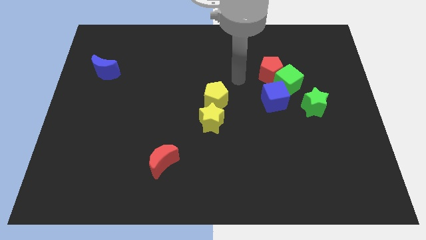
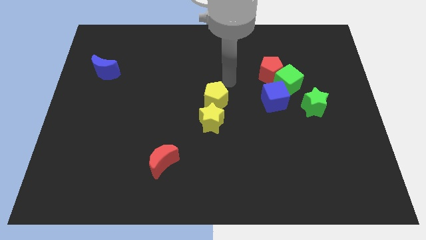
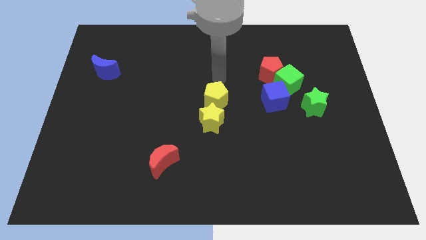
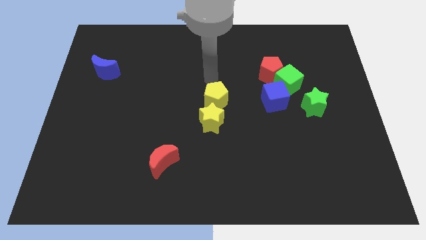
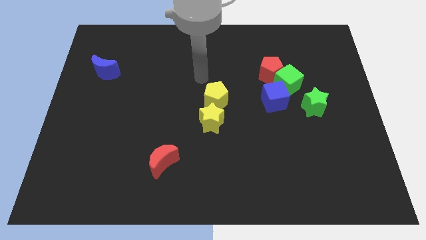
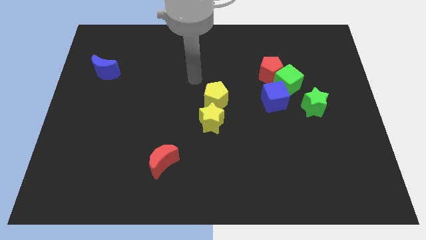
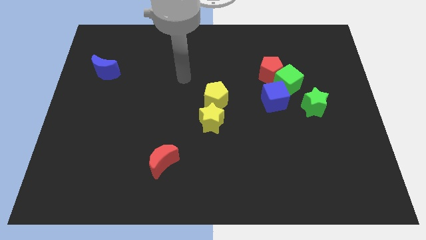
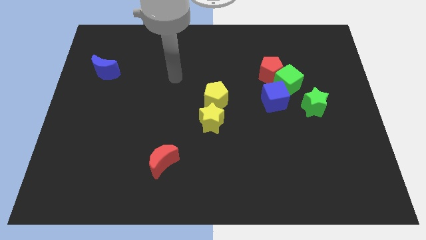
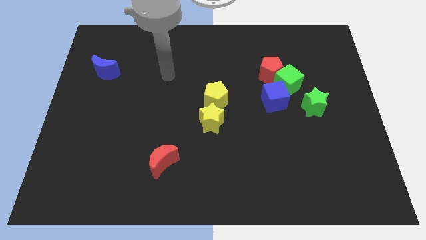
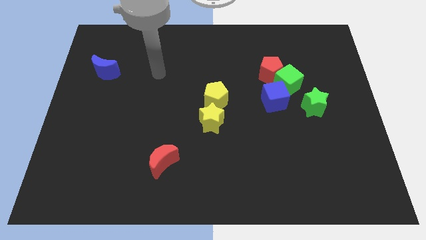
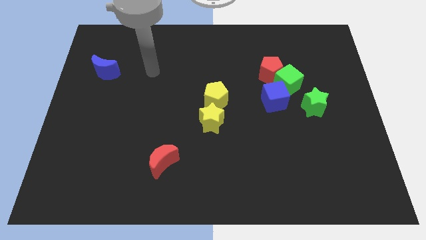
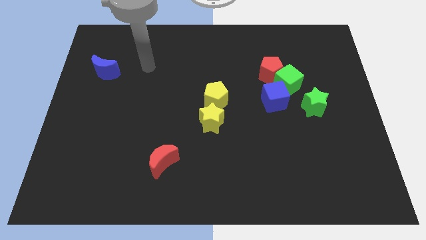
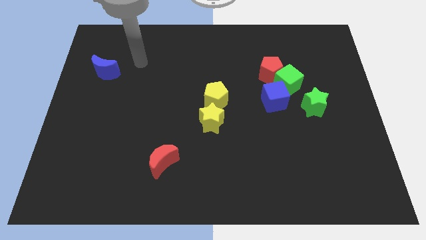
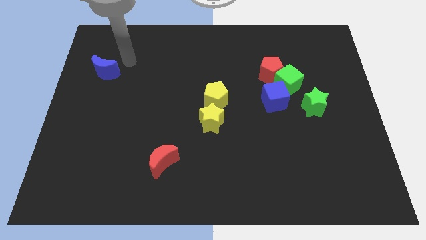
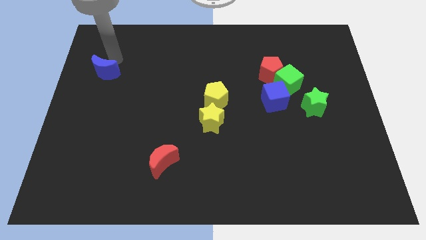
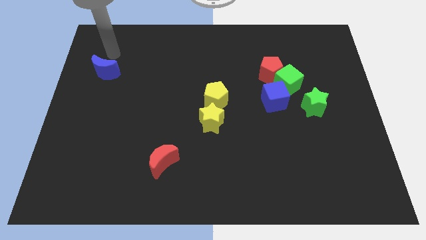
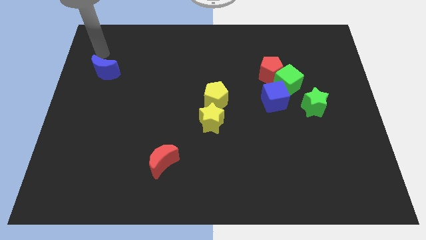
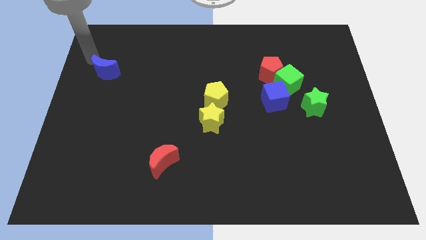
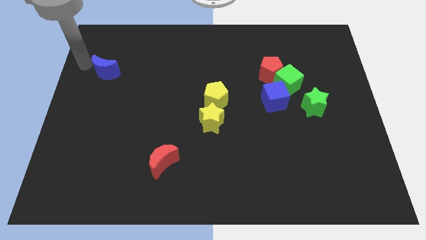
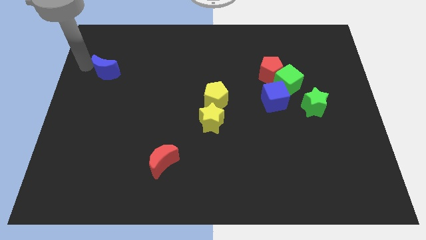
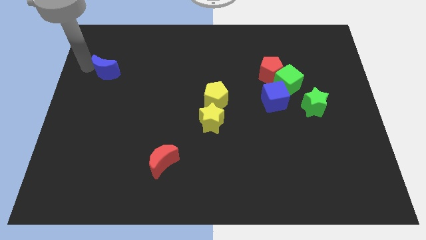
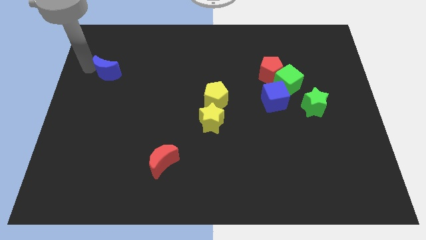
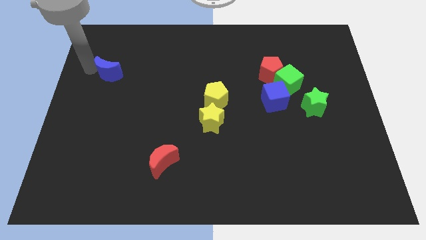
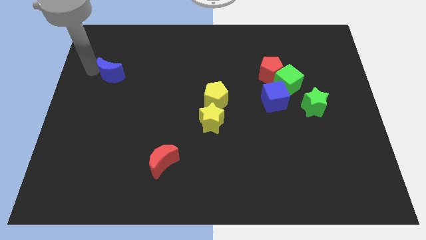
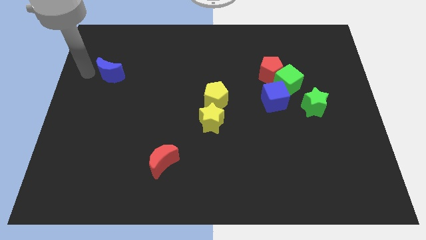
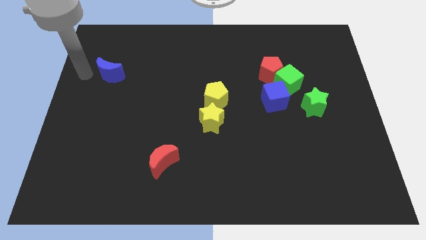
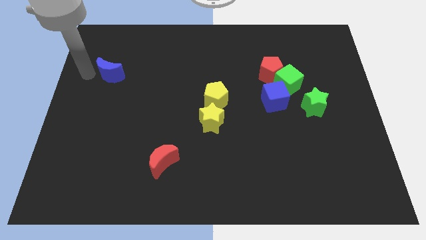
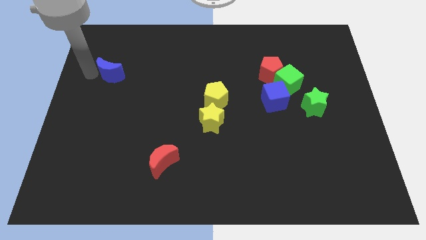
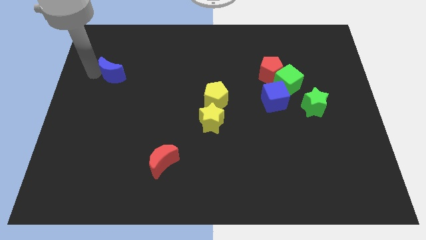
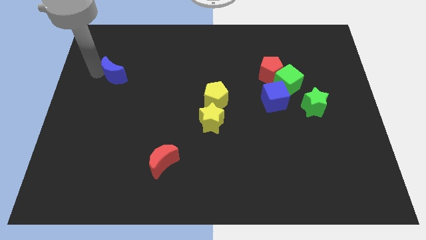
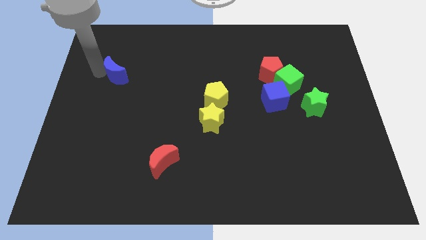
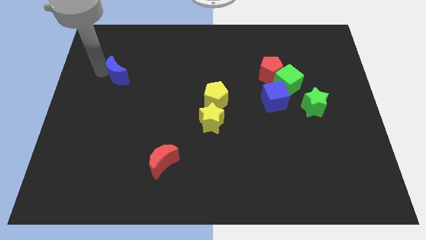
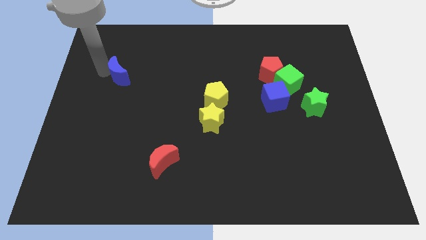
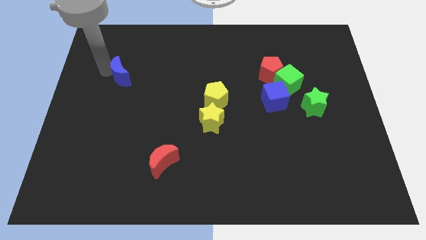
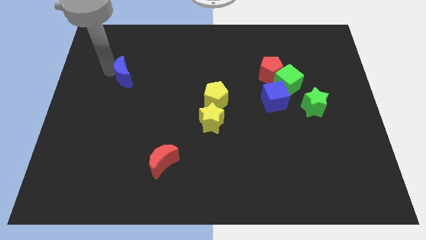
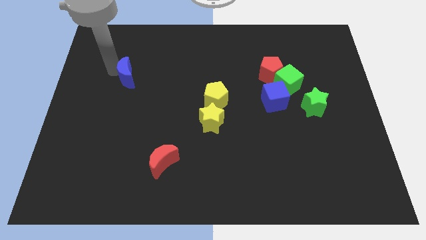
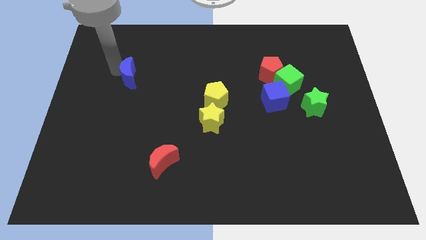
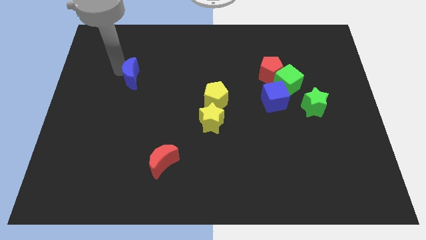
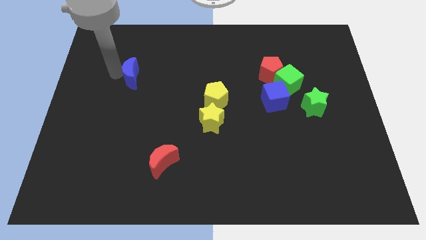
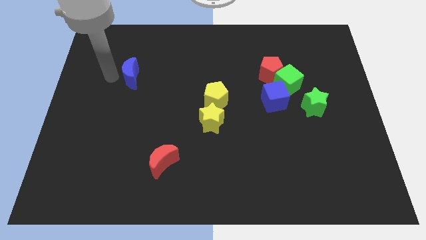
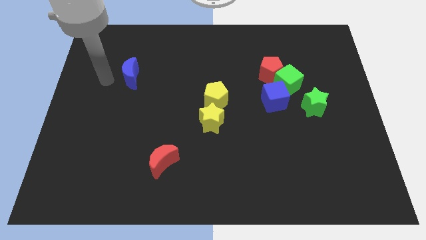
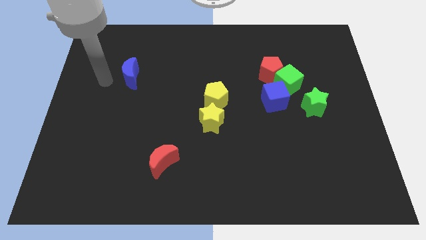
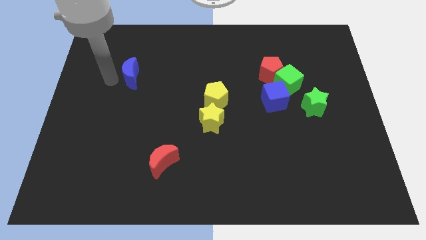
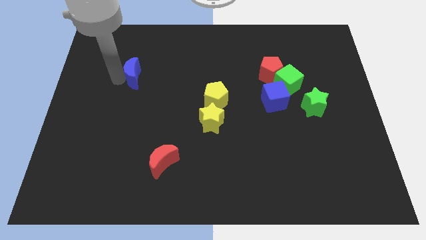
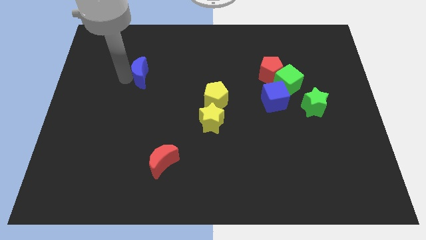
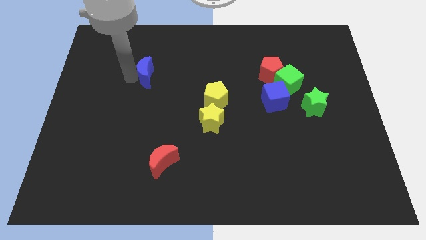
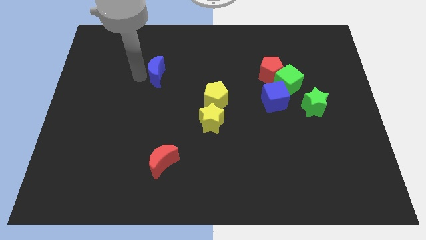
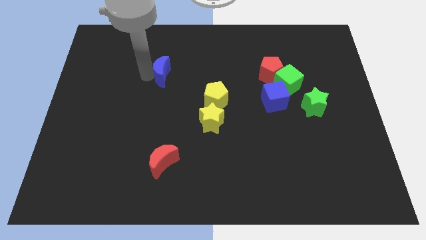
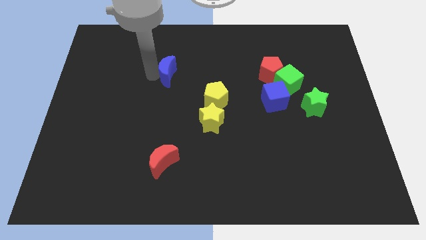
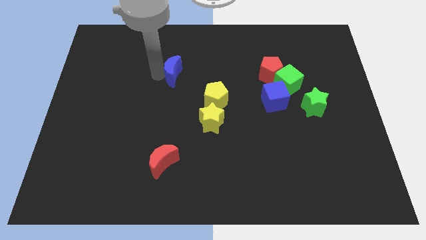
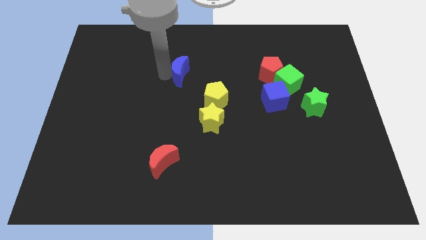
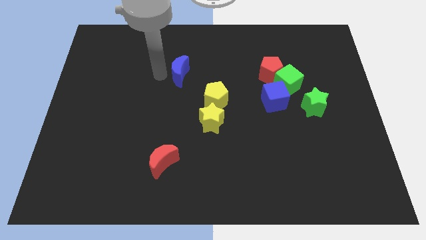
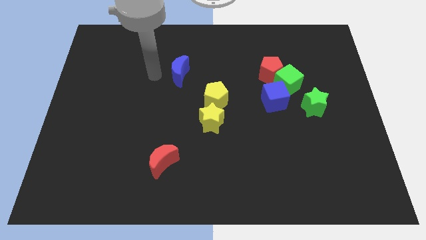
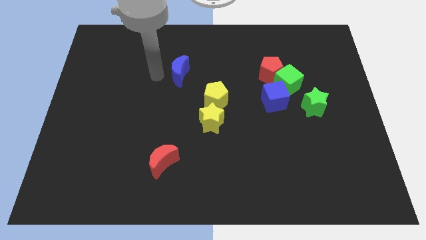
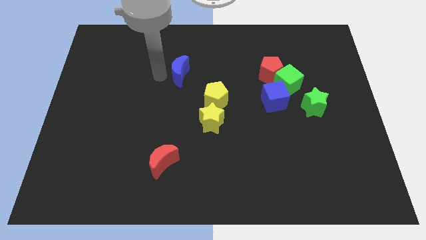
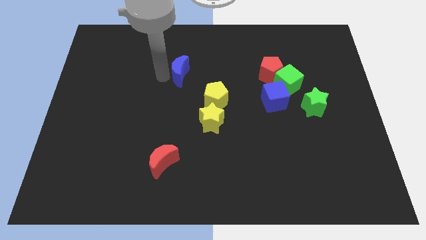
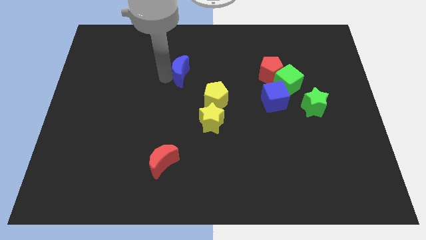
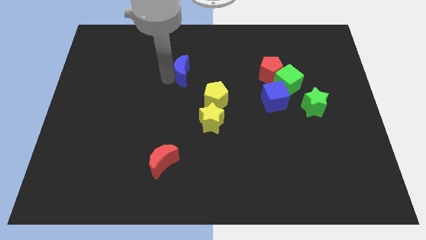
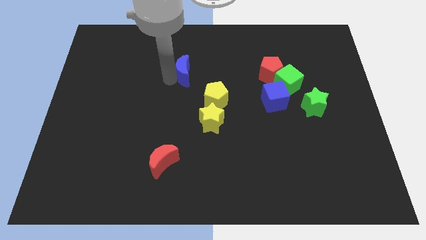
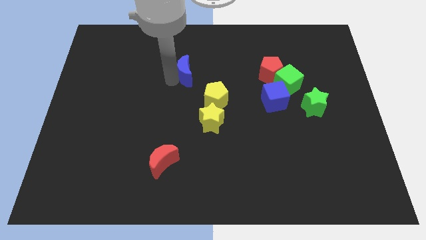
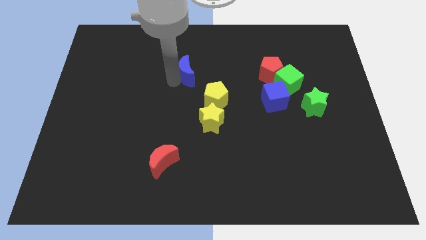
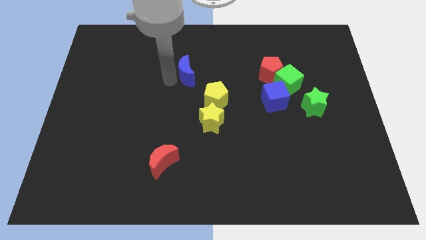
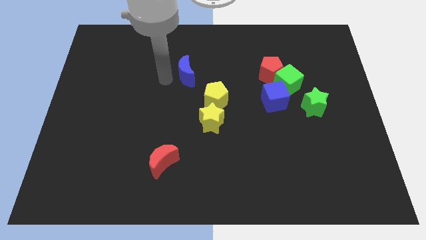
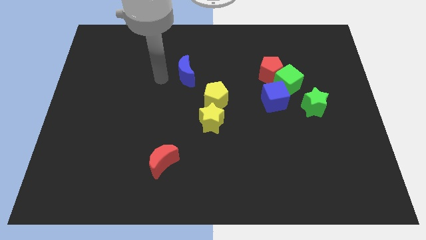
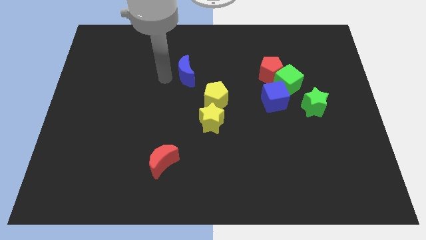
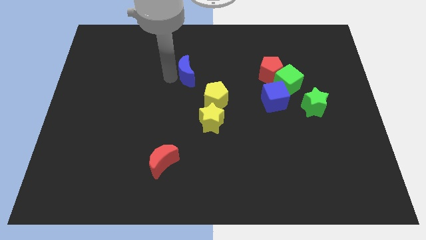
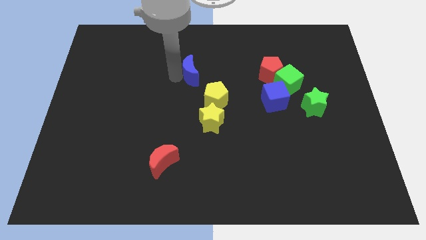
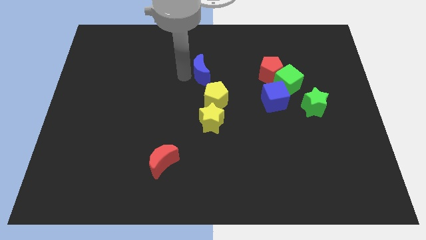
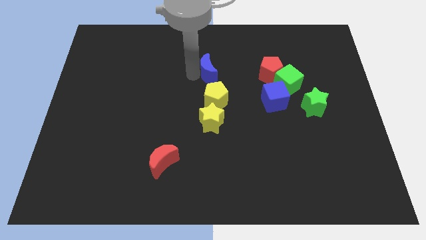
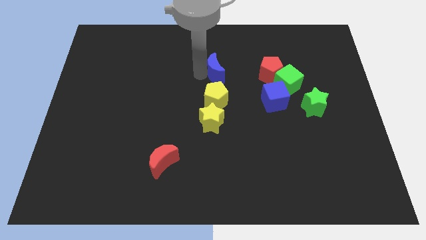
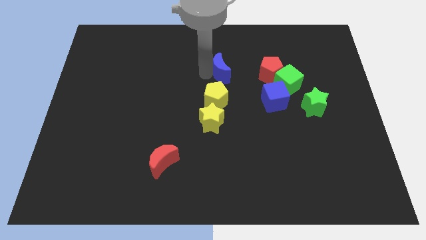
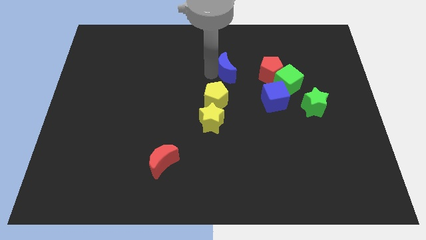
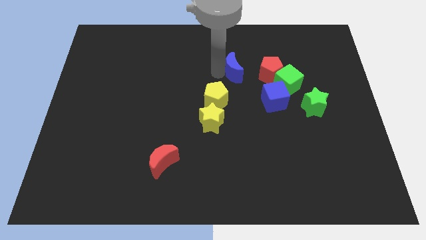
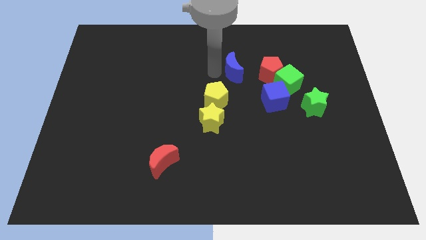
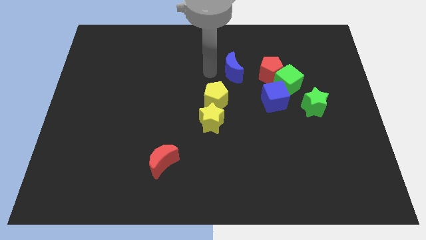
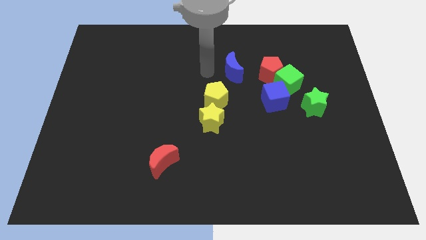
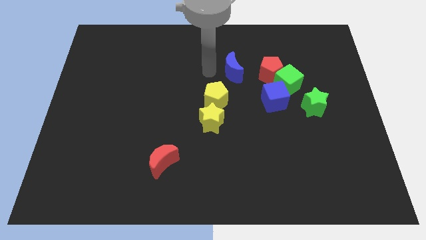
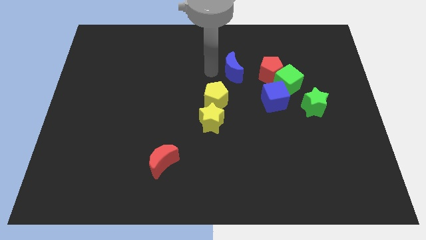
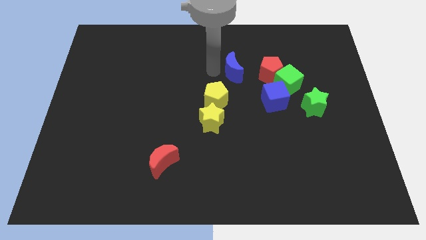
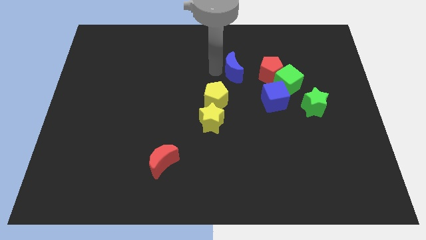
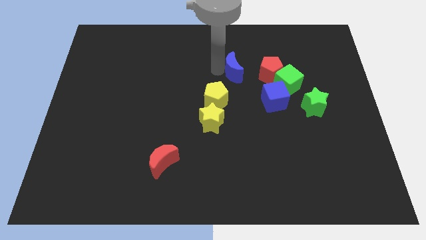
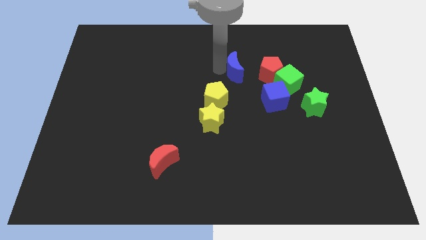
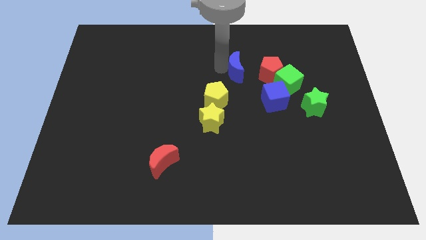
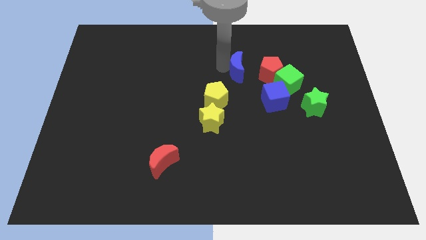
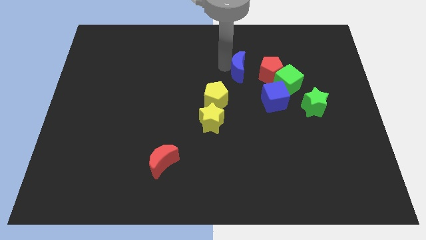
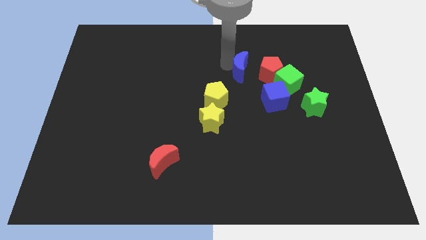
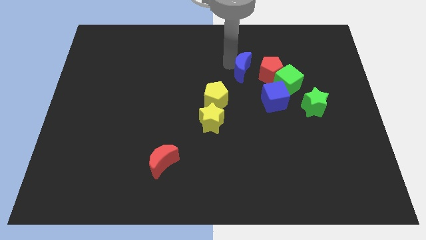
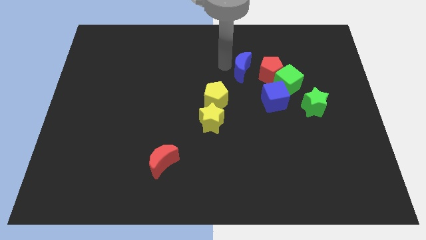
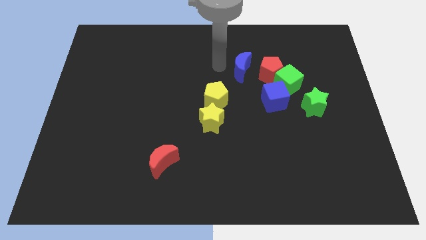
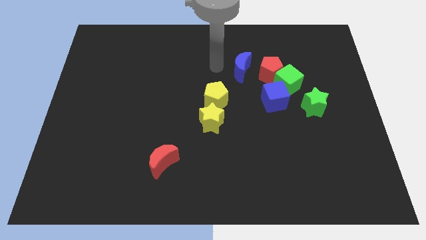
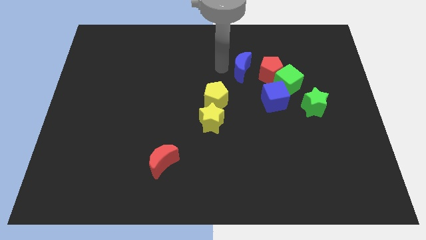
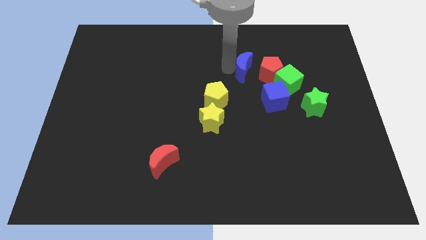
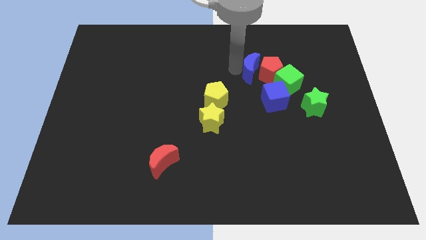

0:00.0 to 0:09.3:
put the blue moon to the red pentagon
